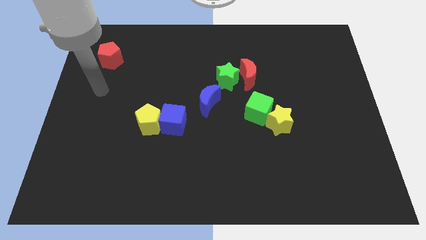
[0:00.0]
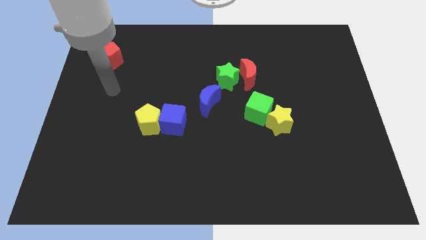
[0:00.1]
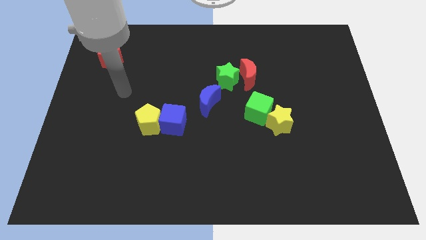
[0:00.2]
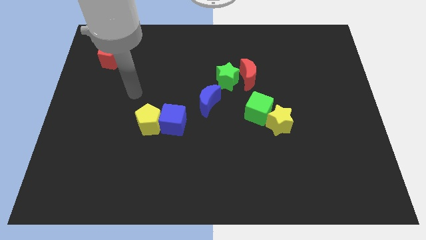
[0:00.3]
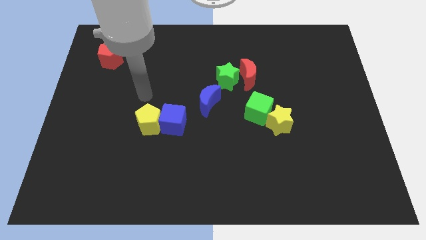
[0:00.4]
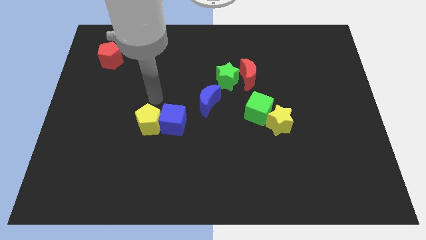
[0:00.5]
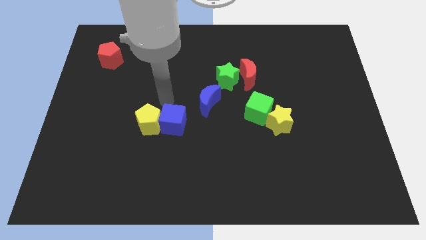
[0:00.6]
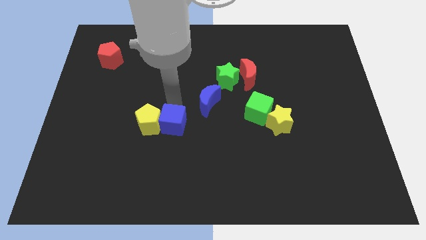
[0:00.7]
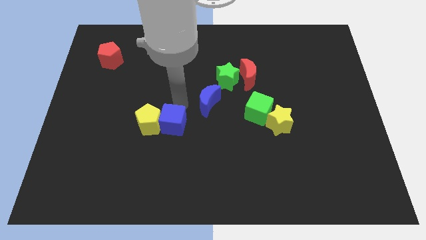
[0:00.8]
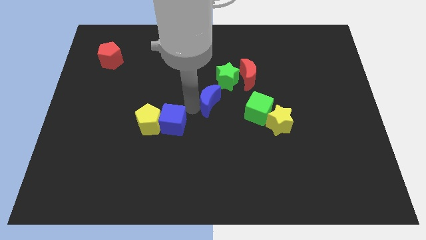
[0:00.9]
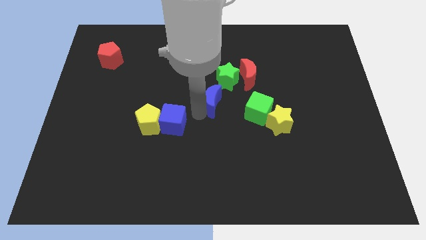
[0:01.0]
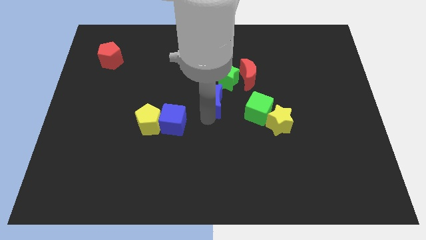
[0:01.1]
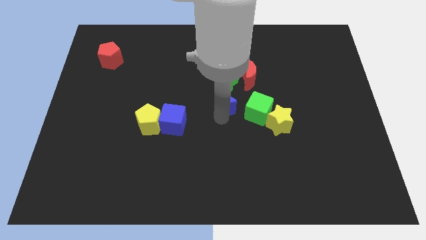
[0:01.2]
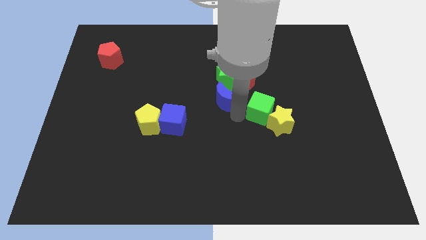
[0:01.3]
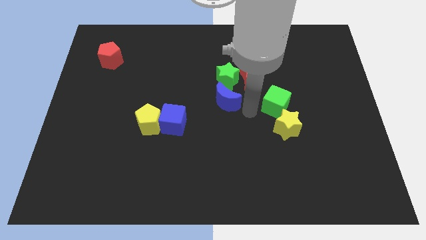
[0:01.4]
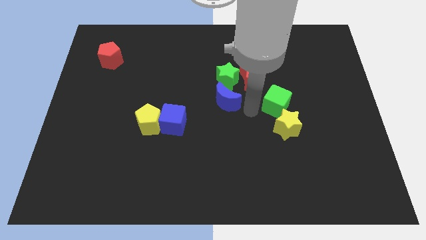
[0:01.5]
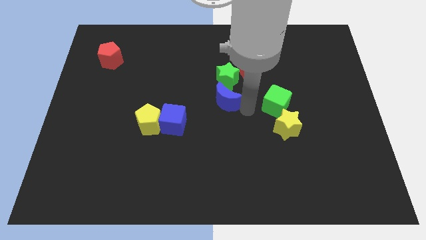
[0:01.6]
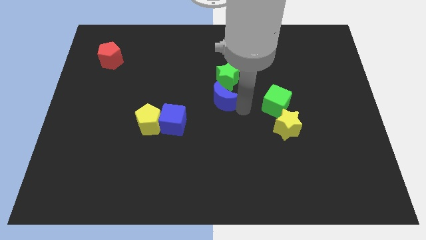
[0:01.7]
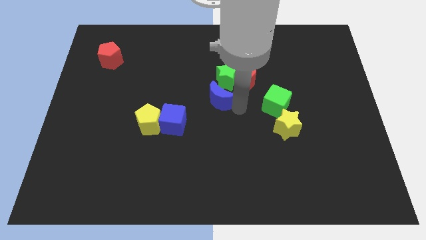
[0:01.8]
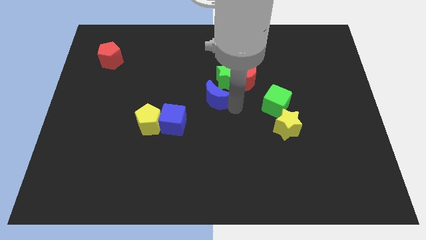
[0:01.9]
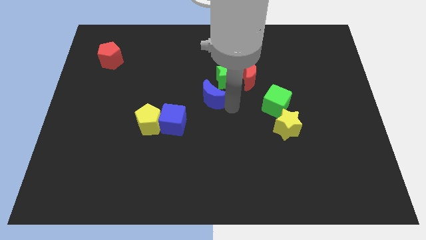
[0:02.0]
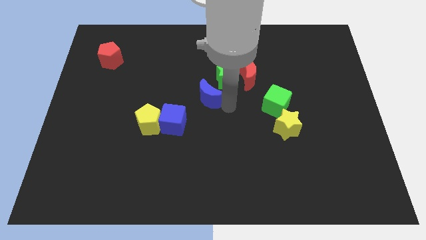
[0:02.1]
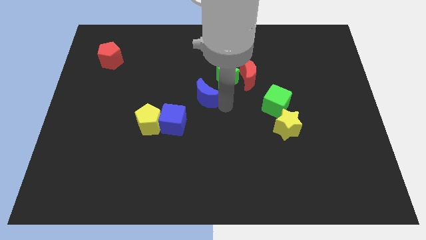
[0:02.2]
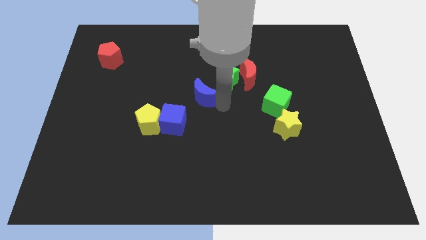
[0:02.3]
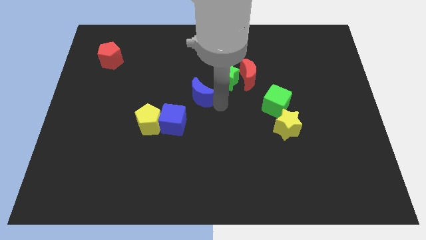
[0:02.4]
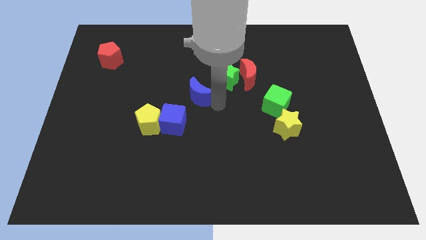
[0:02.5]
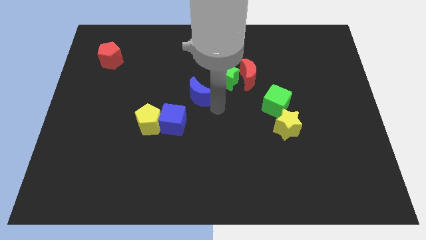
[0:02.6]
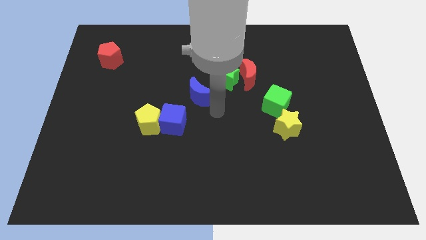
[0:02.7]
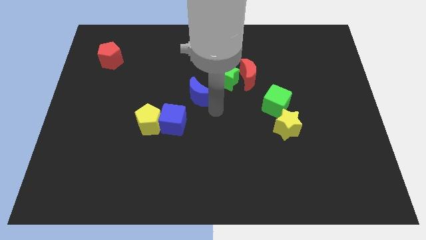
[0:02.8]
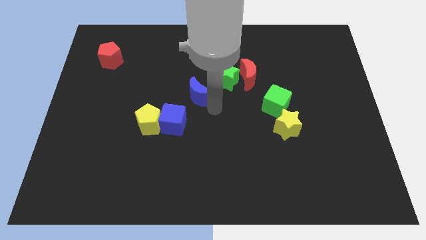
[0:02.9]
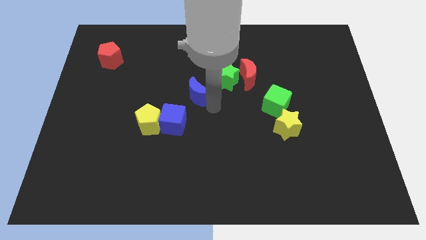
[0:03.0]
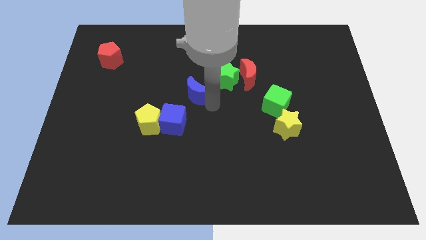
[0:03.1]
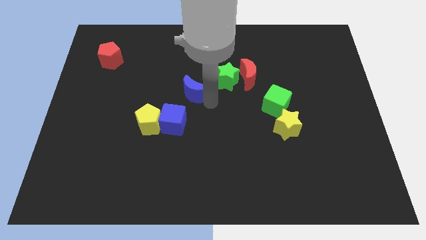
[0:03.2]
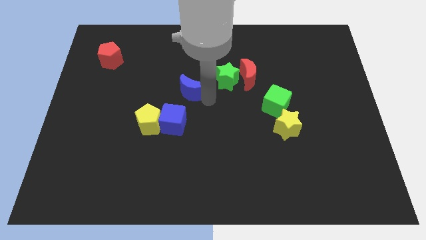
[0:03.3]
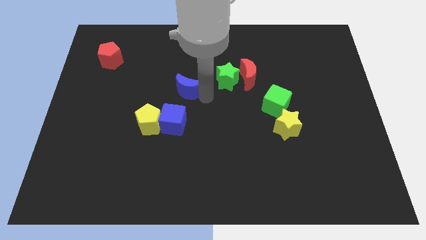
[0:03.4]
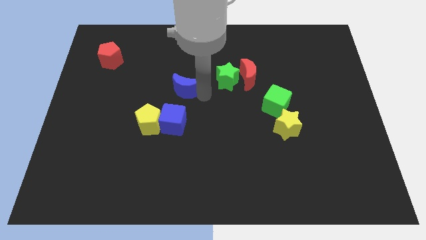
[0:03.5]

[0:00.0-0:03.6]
slightly slide the blue moon upwards and then to the left

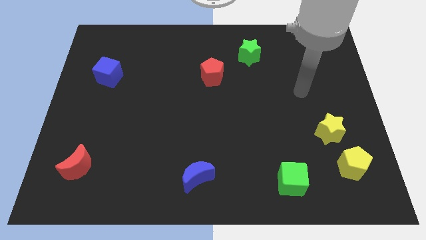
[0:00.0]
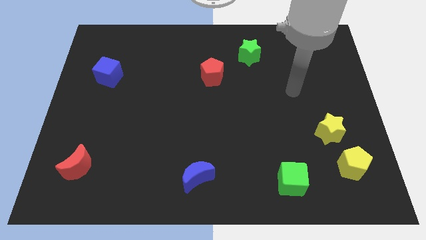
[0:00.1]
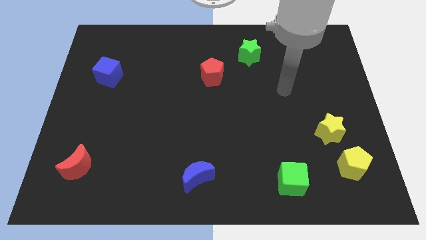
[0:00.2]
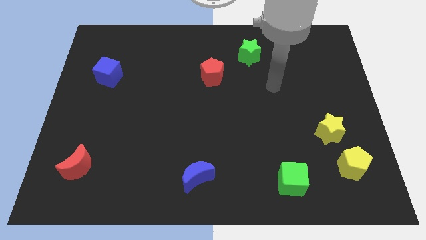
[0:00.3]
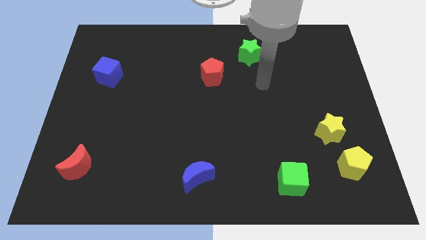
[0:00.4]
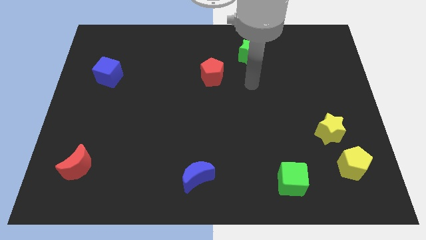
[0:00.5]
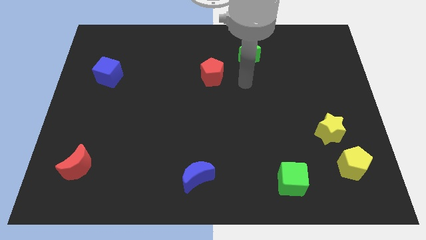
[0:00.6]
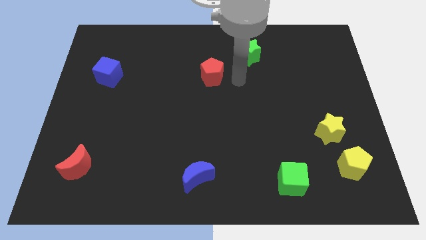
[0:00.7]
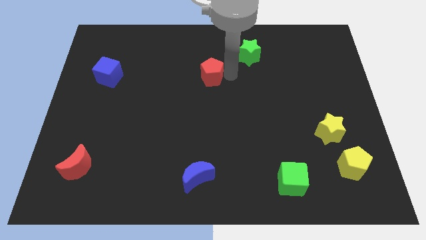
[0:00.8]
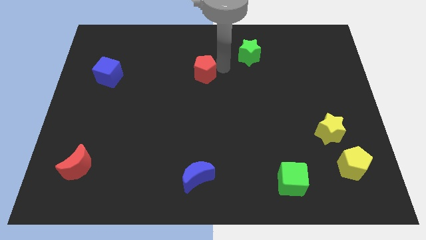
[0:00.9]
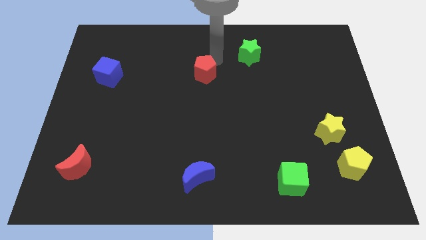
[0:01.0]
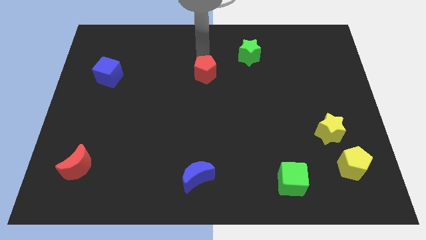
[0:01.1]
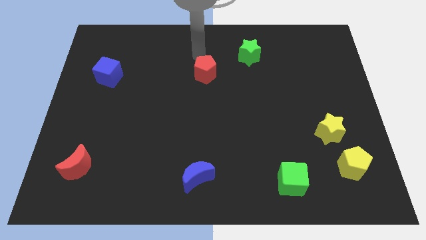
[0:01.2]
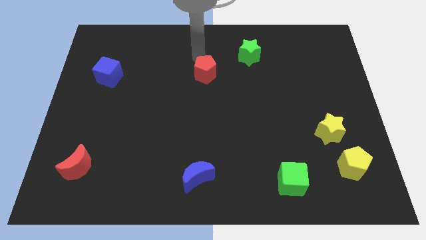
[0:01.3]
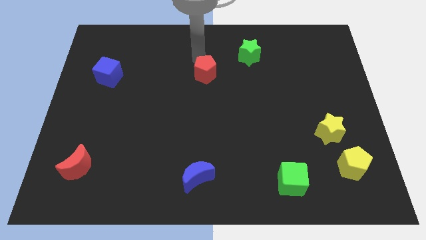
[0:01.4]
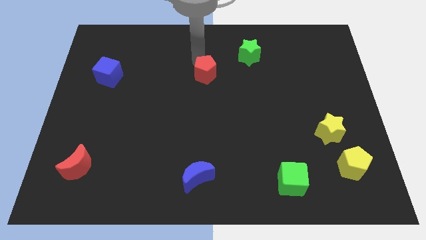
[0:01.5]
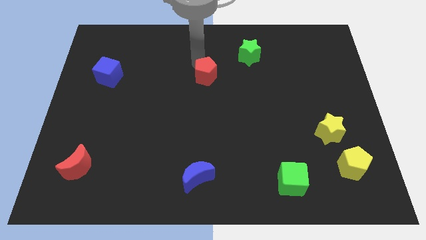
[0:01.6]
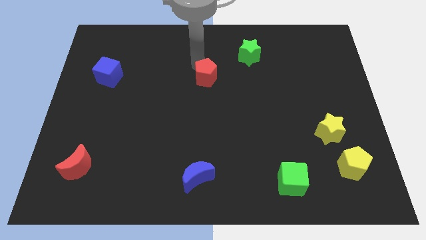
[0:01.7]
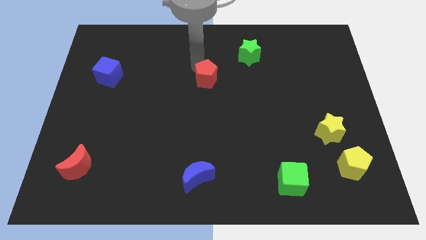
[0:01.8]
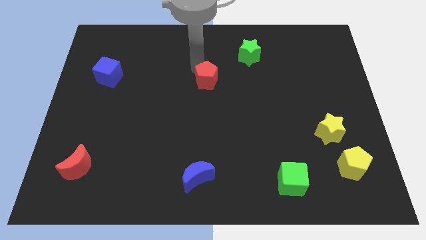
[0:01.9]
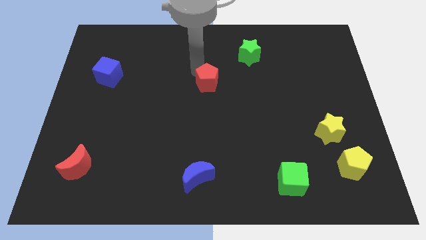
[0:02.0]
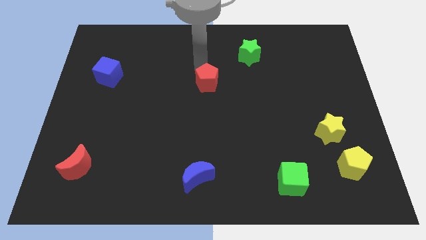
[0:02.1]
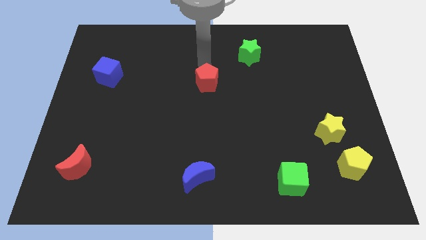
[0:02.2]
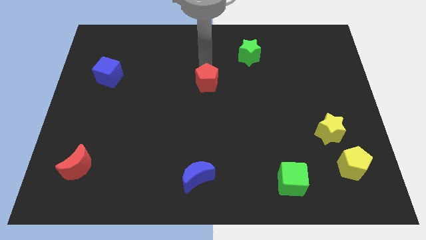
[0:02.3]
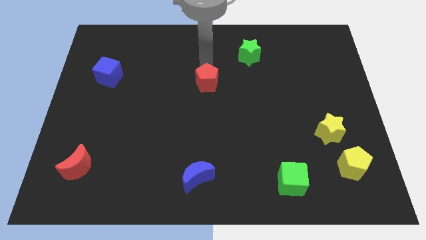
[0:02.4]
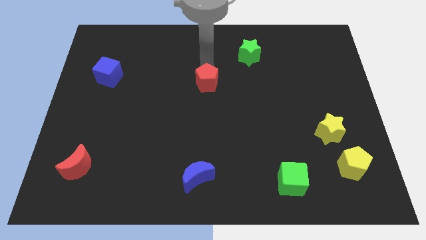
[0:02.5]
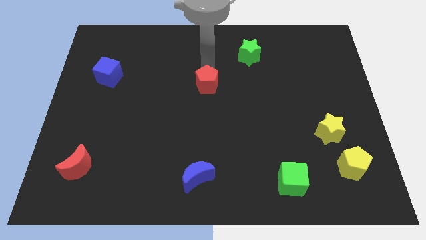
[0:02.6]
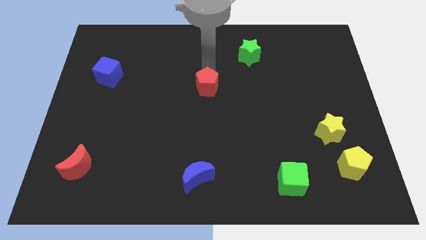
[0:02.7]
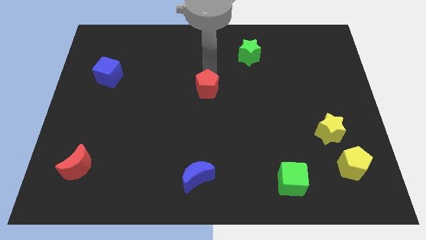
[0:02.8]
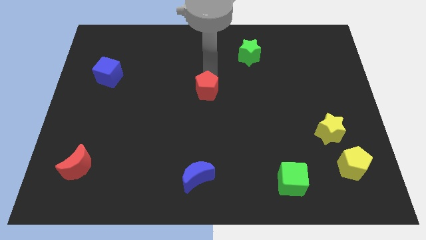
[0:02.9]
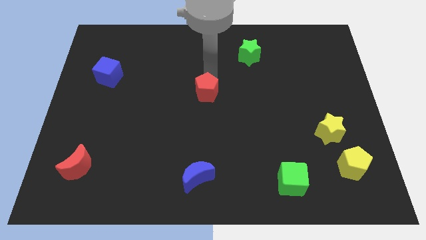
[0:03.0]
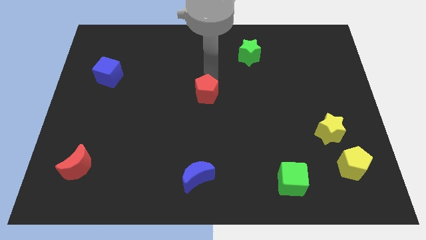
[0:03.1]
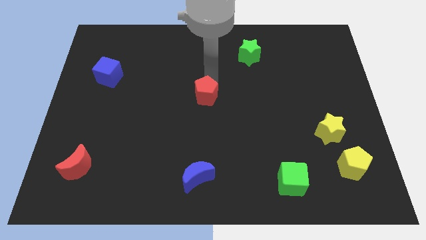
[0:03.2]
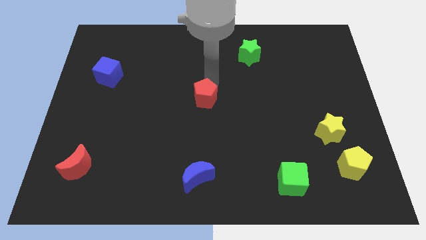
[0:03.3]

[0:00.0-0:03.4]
slightly push the red pentagon downwards

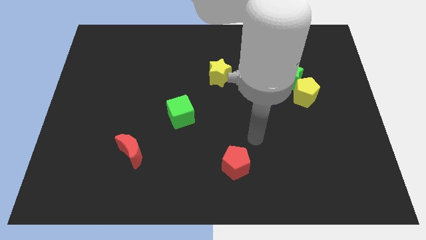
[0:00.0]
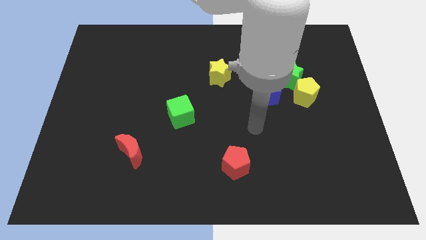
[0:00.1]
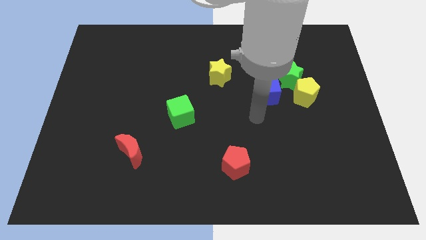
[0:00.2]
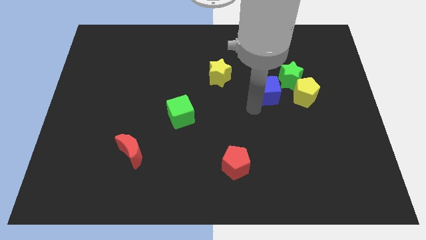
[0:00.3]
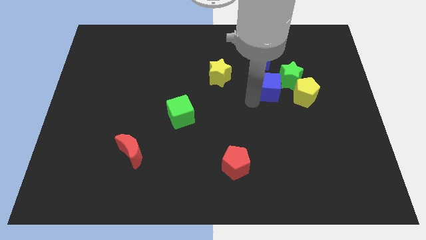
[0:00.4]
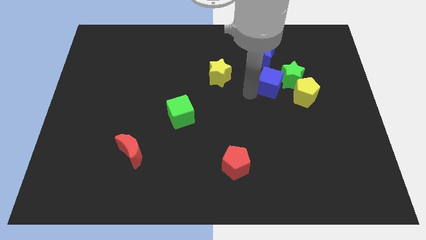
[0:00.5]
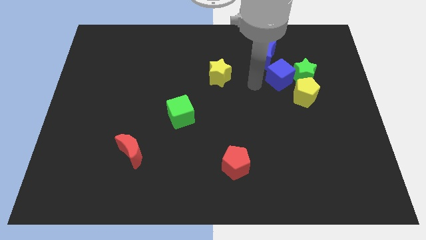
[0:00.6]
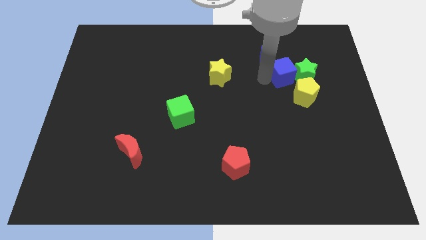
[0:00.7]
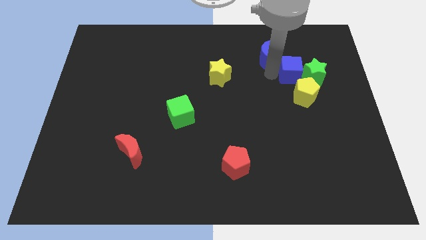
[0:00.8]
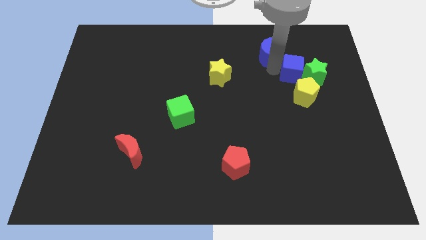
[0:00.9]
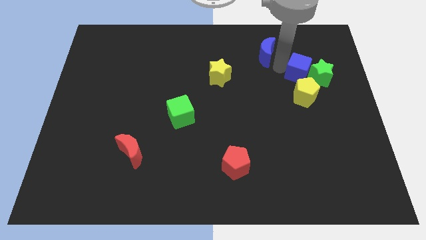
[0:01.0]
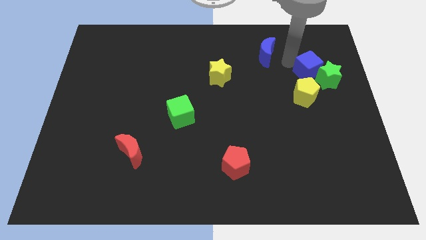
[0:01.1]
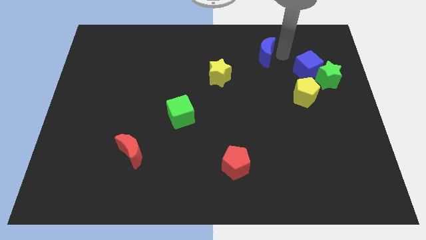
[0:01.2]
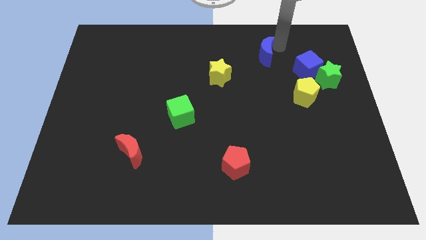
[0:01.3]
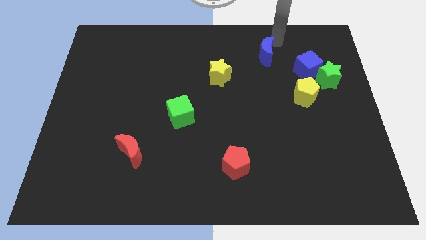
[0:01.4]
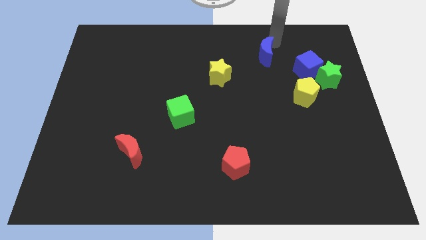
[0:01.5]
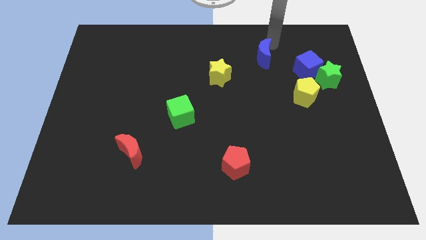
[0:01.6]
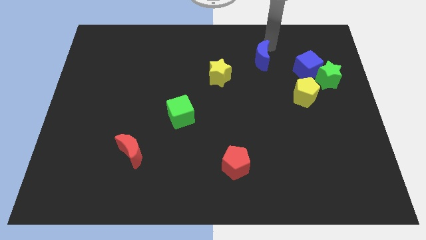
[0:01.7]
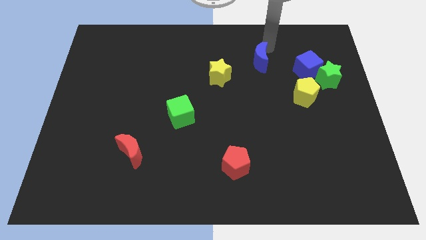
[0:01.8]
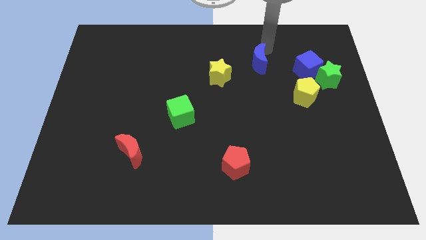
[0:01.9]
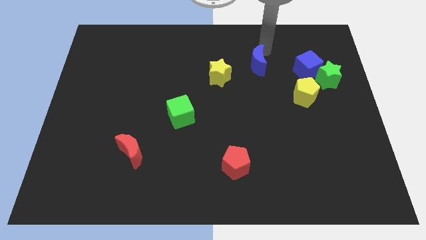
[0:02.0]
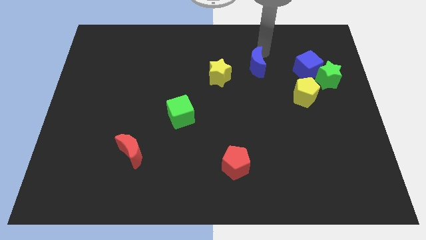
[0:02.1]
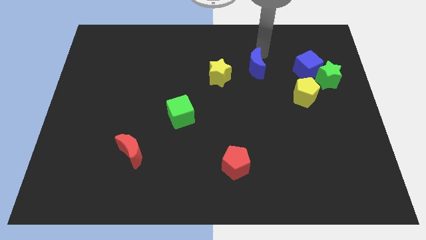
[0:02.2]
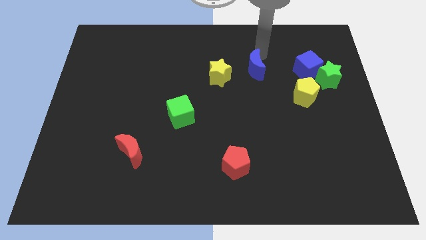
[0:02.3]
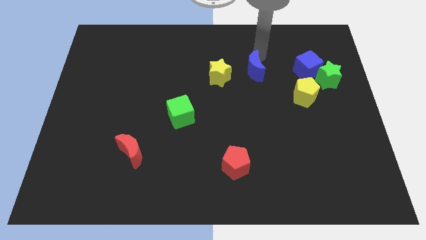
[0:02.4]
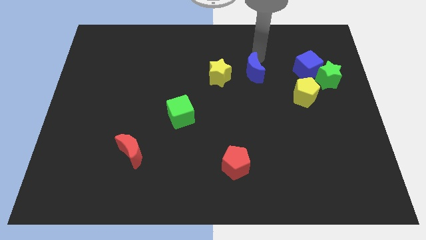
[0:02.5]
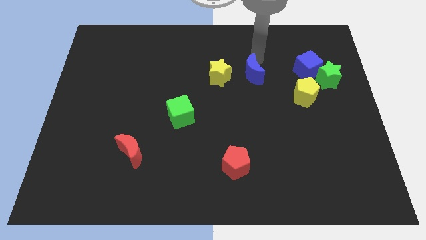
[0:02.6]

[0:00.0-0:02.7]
slightly push the blue moon down and left
